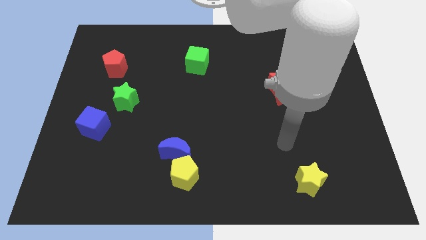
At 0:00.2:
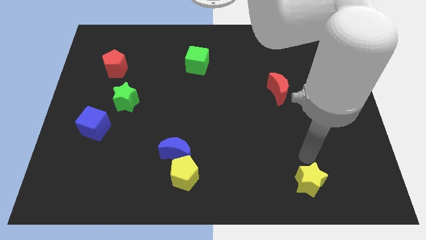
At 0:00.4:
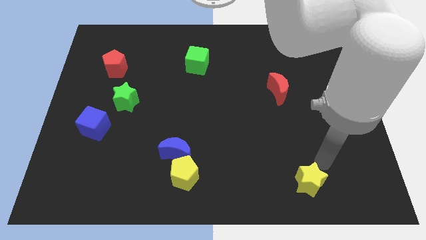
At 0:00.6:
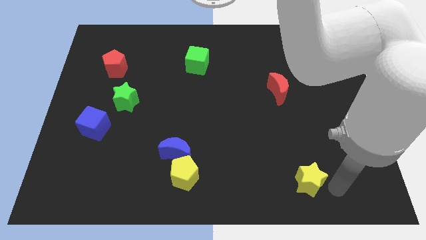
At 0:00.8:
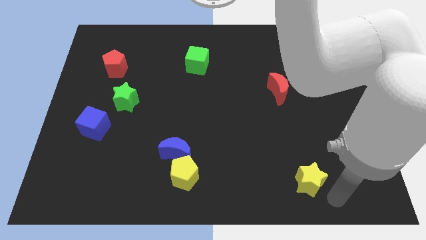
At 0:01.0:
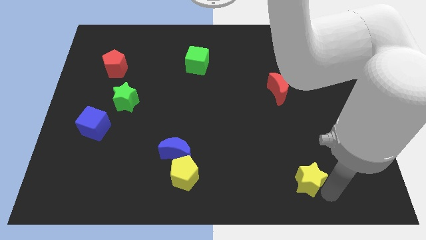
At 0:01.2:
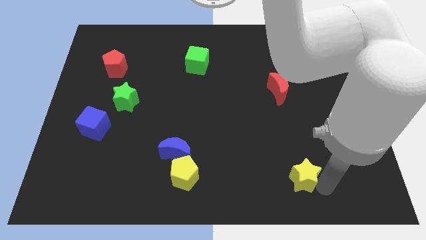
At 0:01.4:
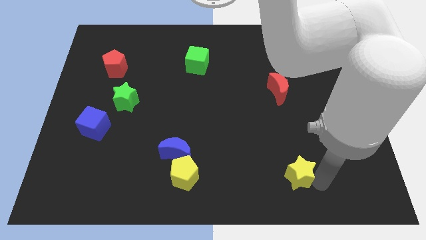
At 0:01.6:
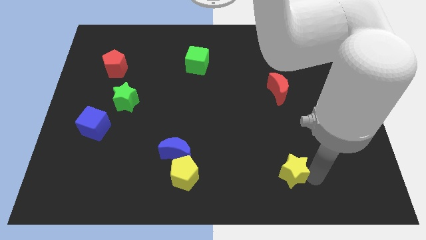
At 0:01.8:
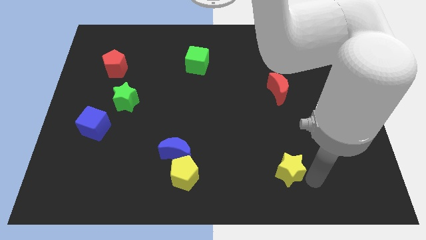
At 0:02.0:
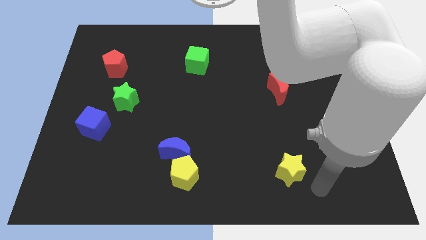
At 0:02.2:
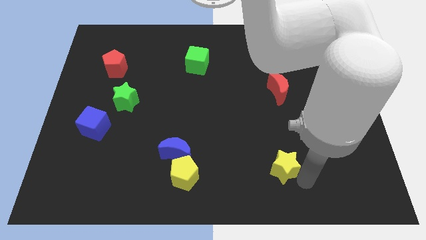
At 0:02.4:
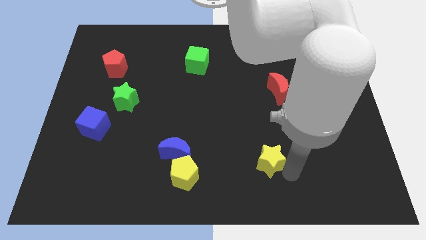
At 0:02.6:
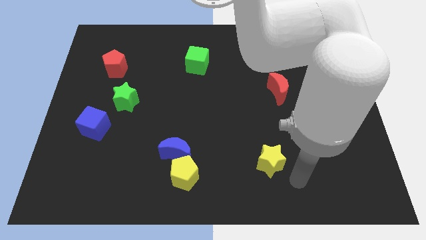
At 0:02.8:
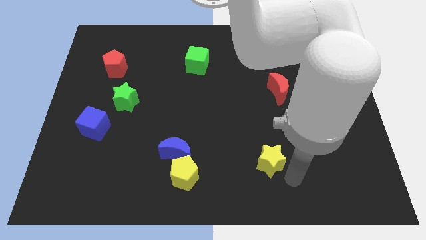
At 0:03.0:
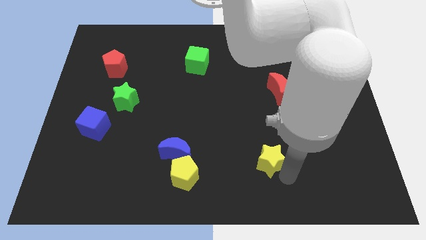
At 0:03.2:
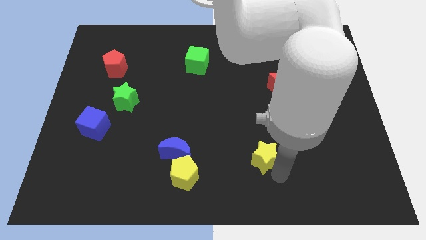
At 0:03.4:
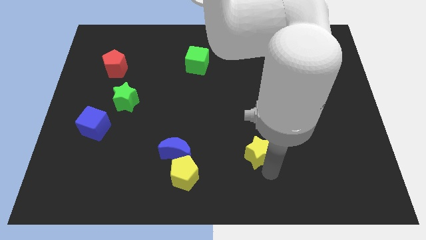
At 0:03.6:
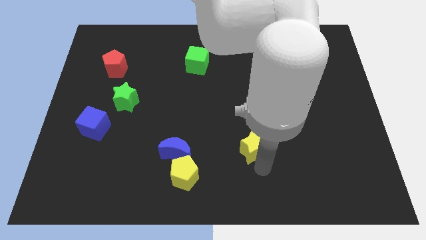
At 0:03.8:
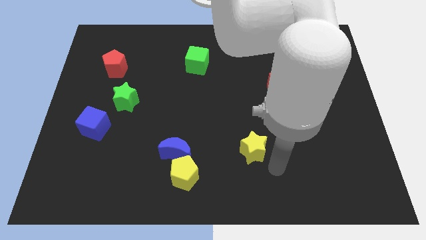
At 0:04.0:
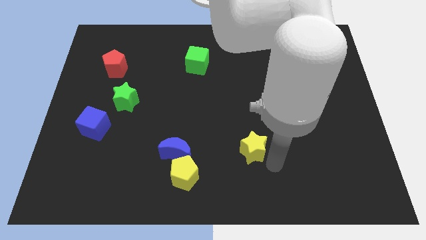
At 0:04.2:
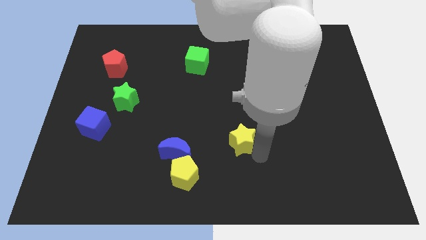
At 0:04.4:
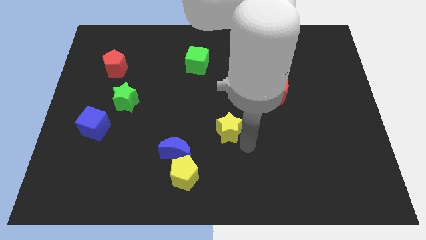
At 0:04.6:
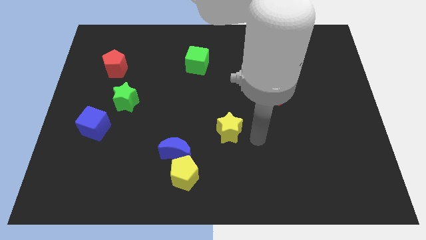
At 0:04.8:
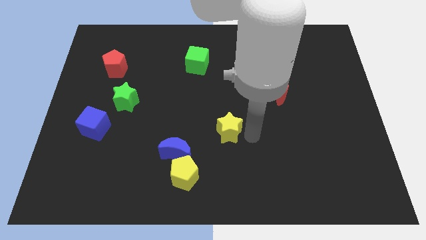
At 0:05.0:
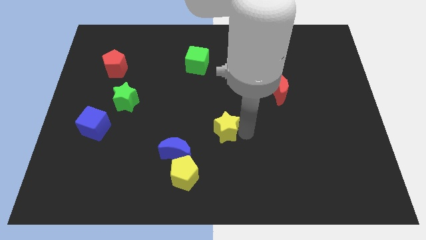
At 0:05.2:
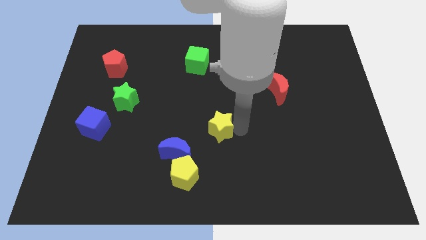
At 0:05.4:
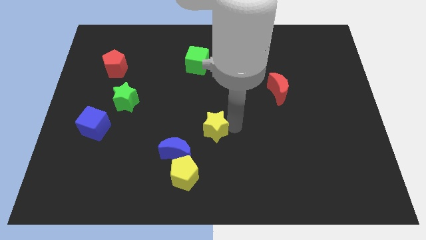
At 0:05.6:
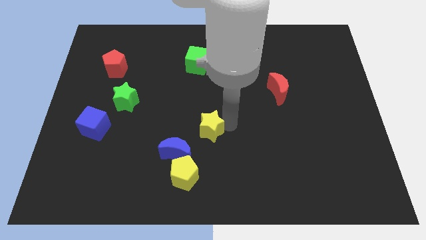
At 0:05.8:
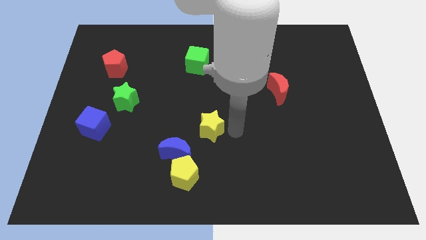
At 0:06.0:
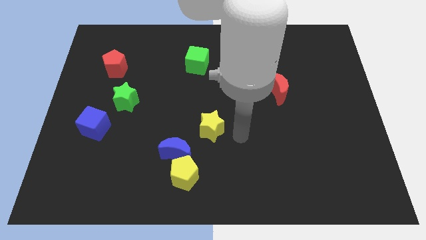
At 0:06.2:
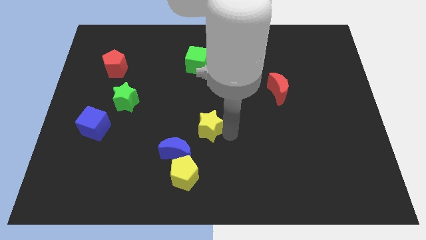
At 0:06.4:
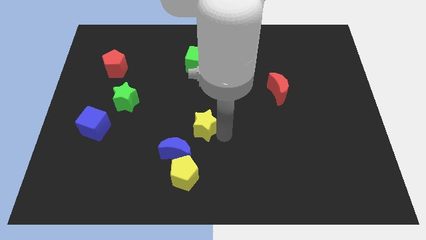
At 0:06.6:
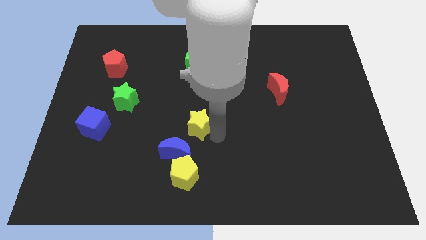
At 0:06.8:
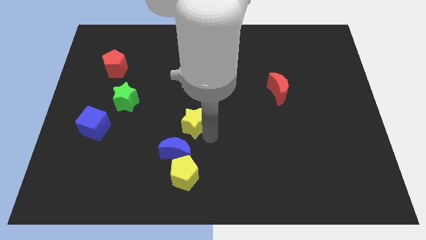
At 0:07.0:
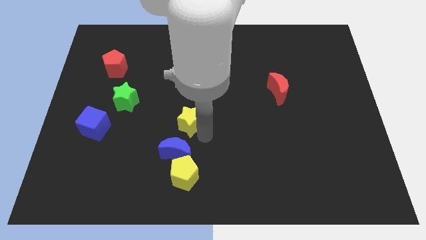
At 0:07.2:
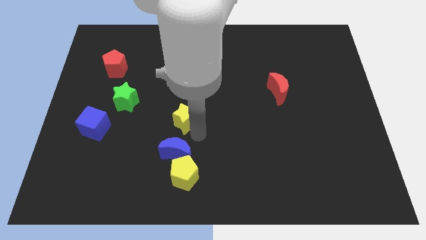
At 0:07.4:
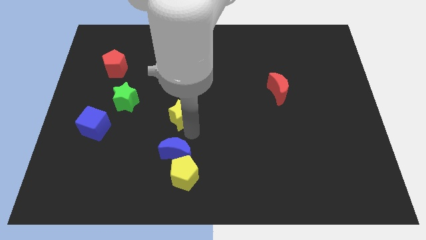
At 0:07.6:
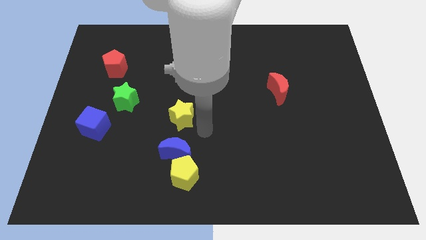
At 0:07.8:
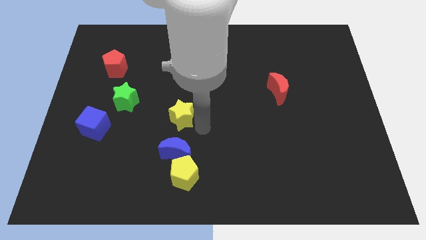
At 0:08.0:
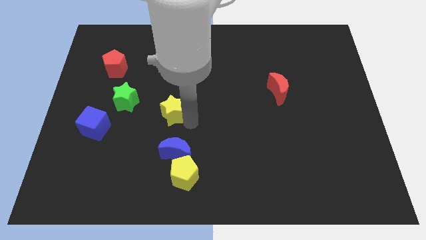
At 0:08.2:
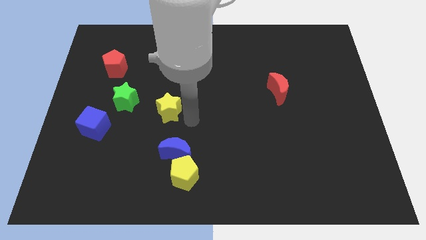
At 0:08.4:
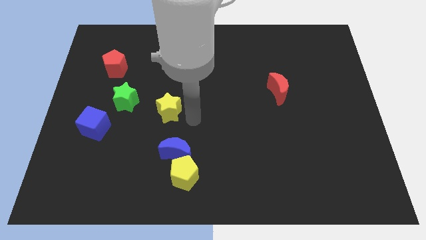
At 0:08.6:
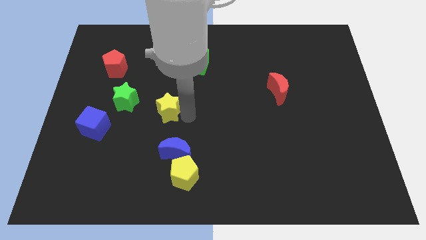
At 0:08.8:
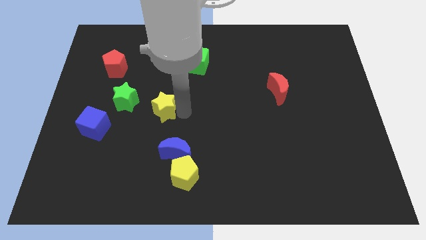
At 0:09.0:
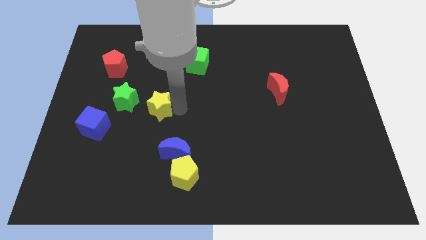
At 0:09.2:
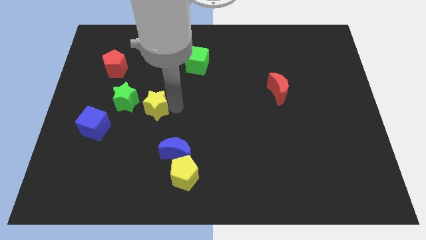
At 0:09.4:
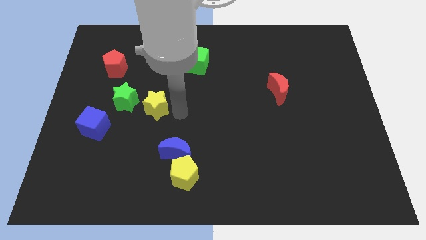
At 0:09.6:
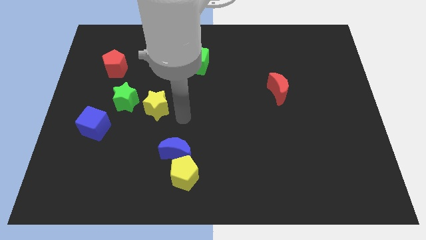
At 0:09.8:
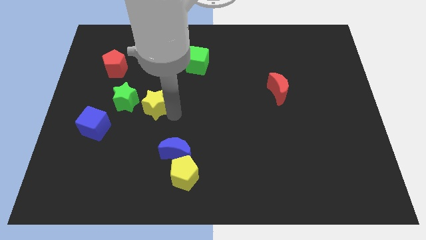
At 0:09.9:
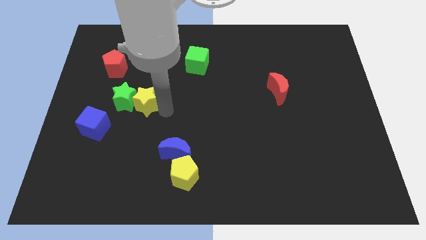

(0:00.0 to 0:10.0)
slide the yellow star next to the green star

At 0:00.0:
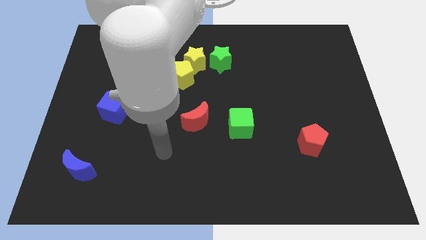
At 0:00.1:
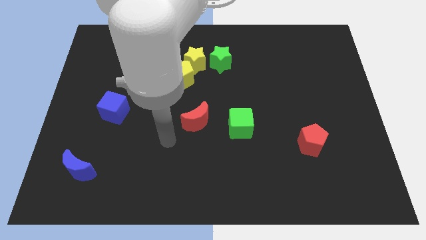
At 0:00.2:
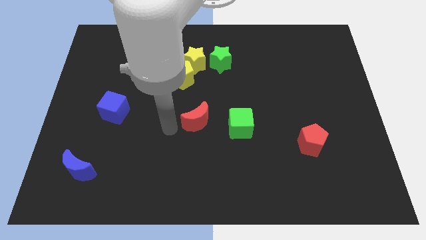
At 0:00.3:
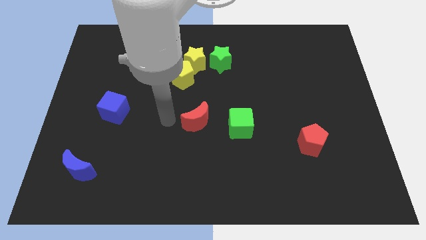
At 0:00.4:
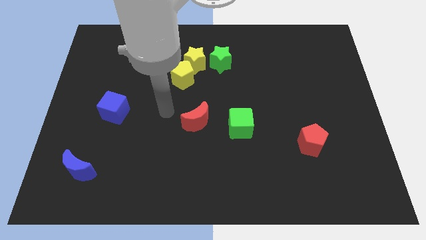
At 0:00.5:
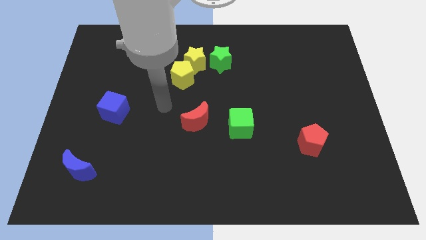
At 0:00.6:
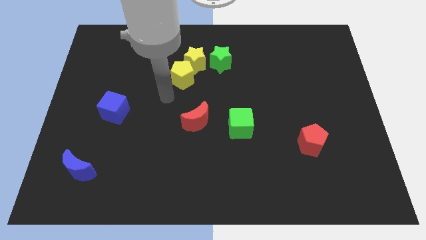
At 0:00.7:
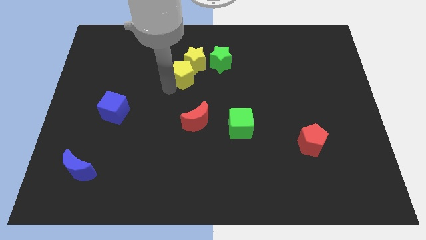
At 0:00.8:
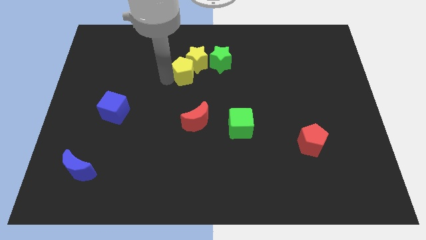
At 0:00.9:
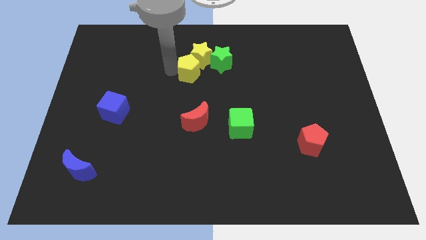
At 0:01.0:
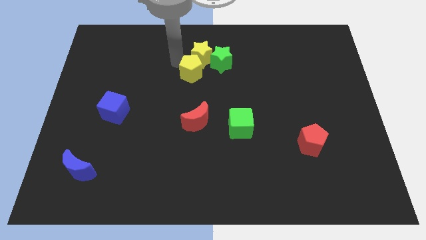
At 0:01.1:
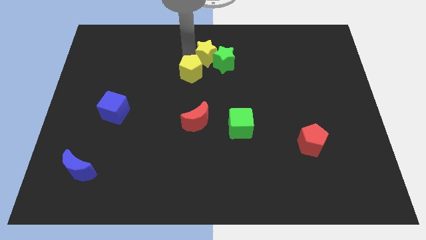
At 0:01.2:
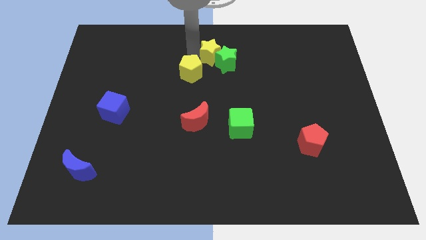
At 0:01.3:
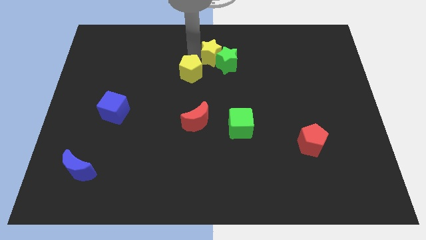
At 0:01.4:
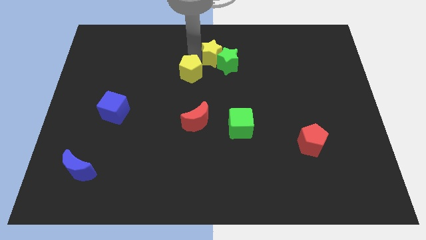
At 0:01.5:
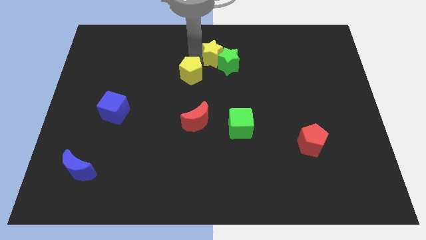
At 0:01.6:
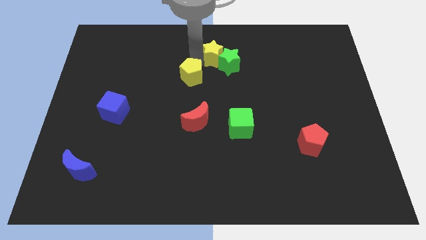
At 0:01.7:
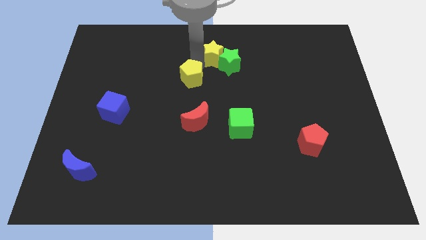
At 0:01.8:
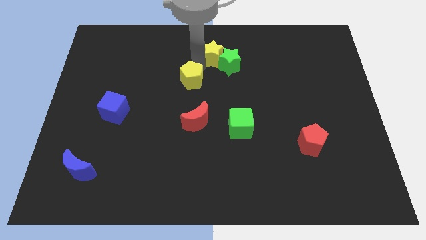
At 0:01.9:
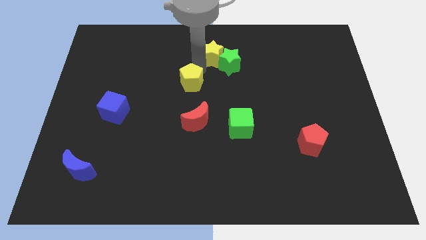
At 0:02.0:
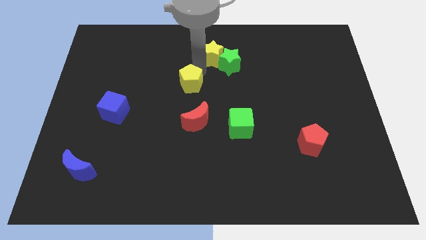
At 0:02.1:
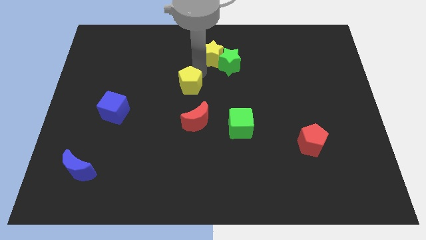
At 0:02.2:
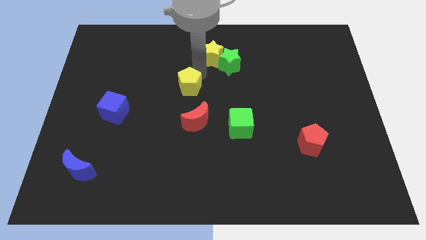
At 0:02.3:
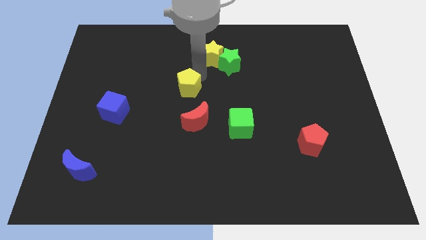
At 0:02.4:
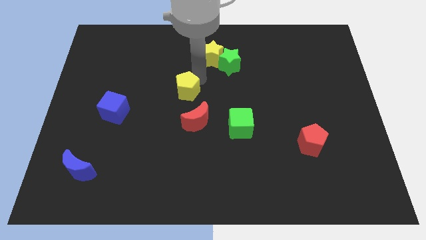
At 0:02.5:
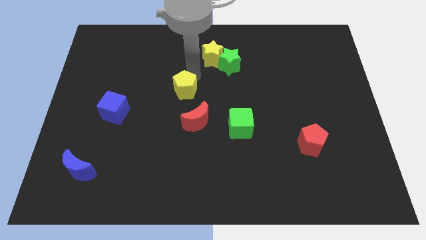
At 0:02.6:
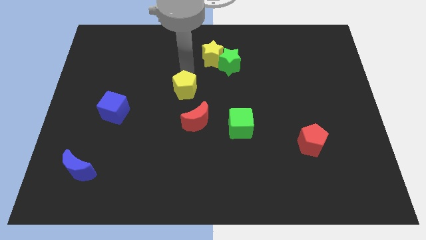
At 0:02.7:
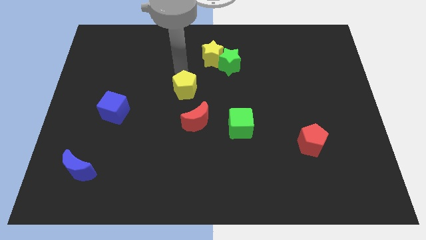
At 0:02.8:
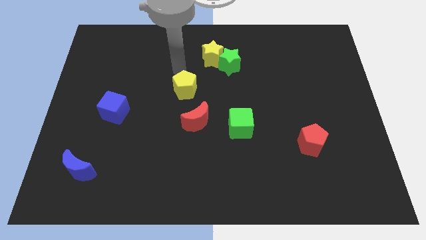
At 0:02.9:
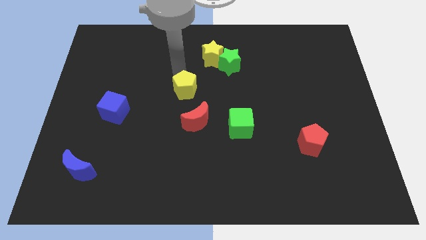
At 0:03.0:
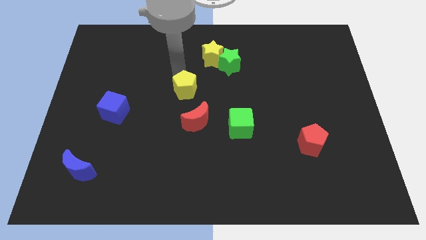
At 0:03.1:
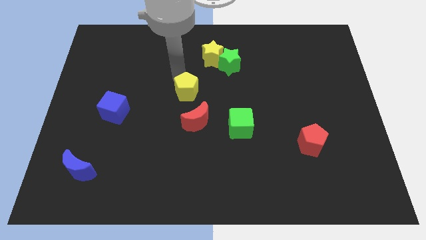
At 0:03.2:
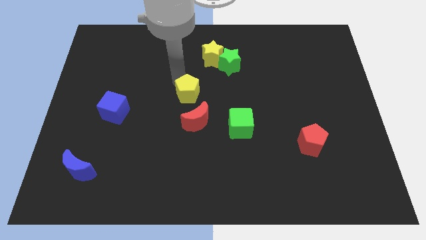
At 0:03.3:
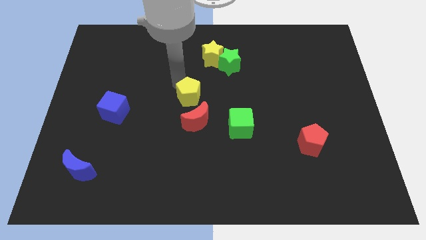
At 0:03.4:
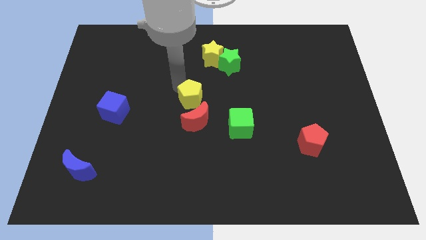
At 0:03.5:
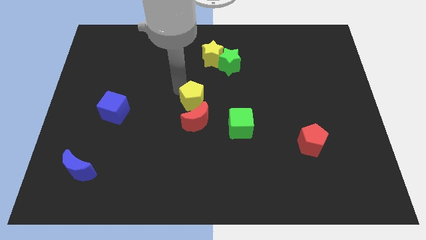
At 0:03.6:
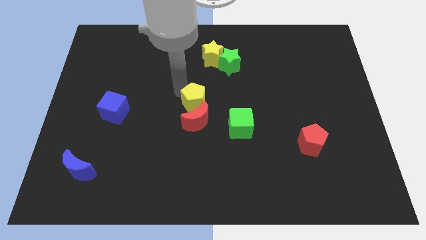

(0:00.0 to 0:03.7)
slide the yellow pentagon next to the red moon
